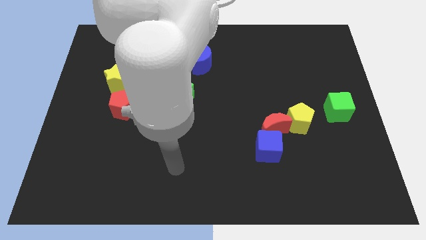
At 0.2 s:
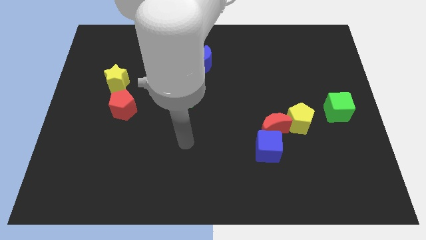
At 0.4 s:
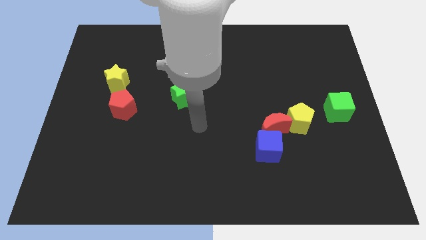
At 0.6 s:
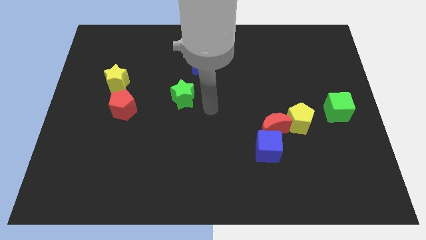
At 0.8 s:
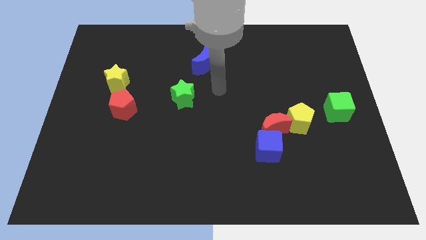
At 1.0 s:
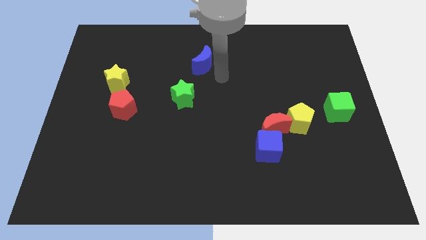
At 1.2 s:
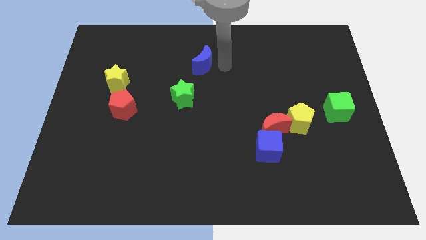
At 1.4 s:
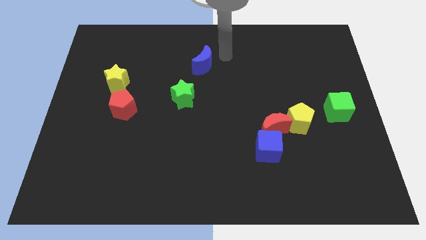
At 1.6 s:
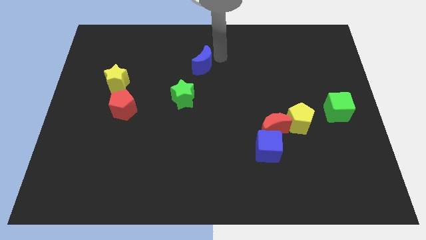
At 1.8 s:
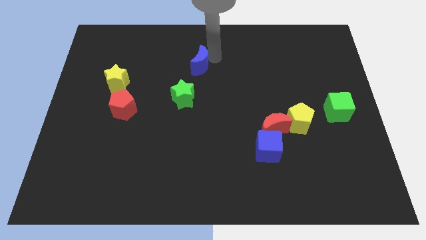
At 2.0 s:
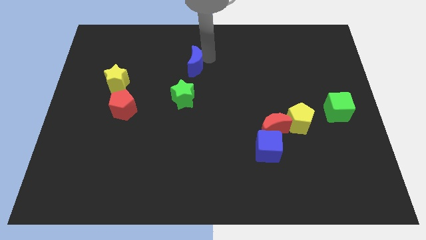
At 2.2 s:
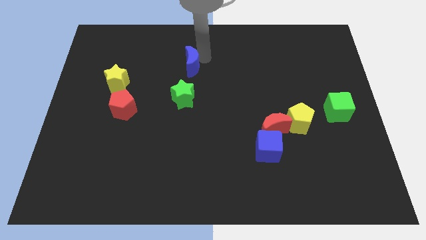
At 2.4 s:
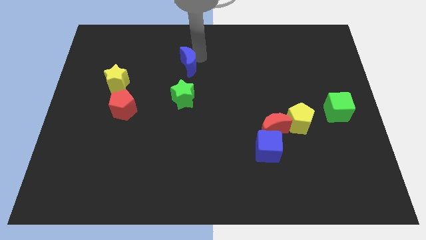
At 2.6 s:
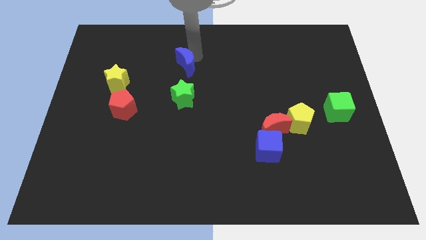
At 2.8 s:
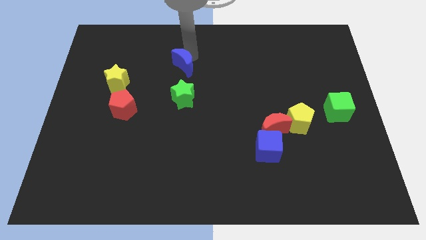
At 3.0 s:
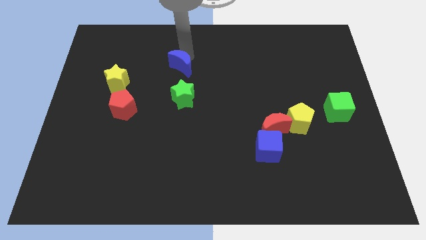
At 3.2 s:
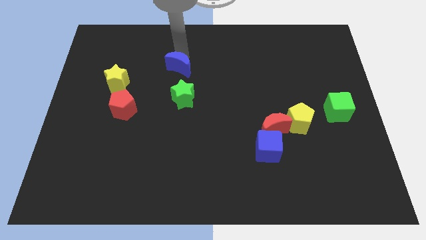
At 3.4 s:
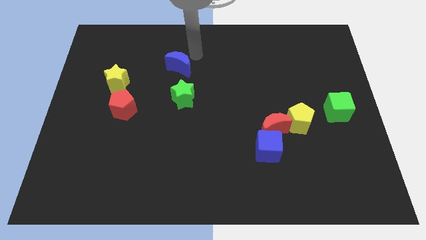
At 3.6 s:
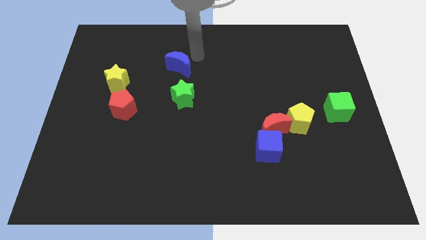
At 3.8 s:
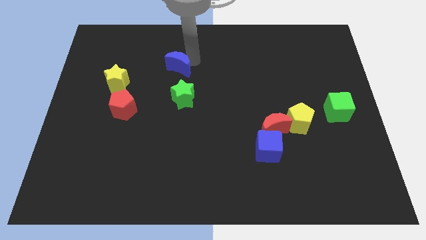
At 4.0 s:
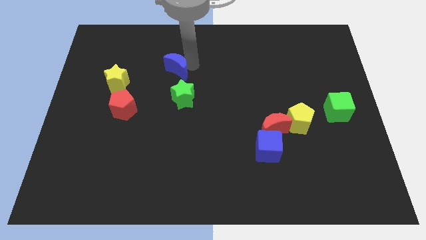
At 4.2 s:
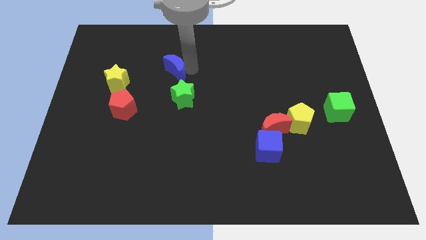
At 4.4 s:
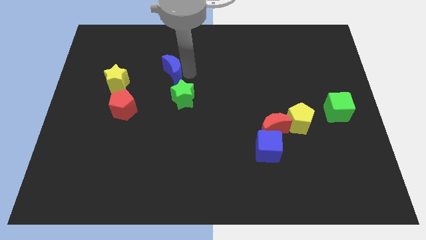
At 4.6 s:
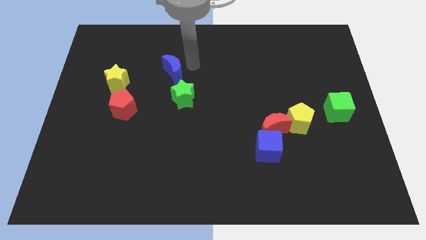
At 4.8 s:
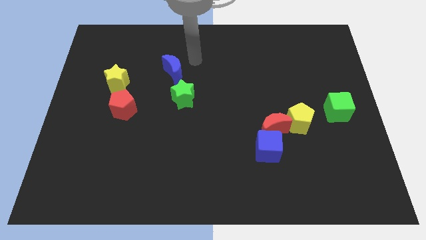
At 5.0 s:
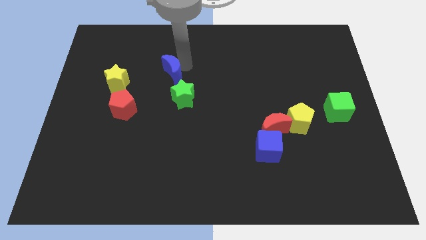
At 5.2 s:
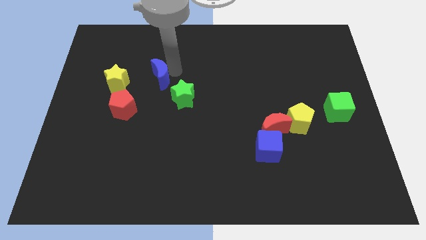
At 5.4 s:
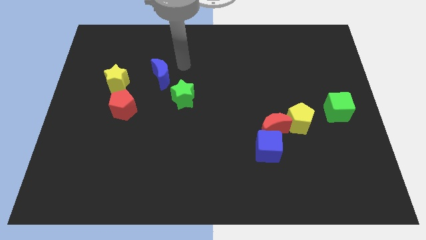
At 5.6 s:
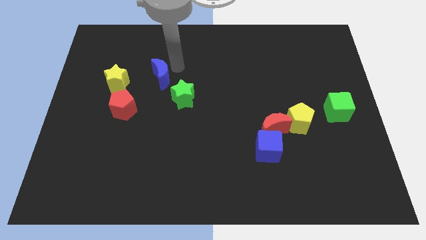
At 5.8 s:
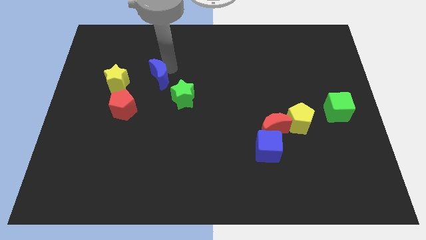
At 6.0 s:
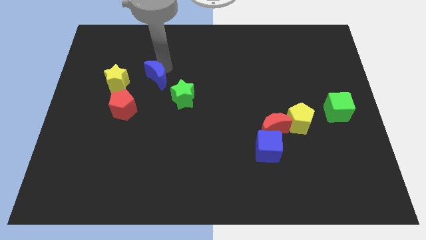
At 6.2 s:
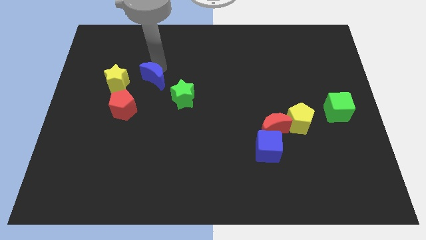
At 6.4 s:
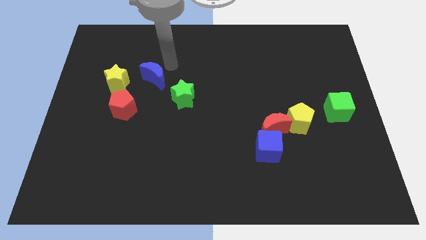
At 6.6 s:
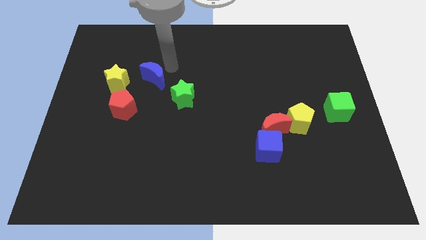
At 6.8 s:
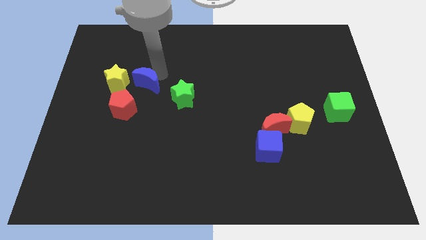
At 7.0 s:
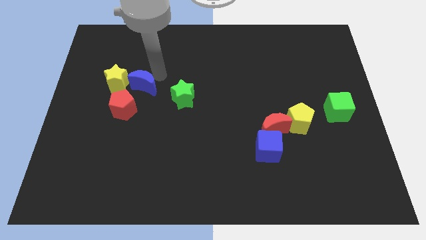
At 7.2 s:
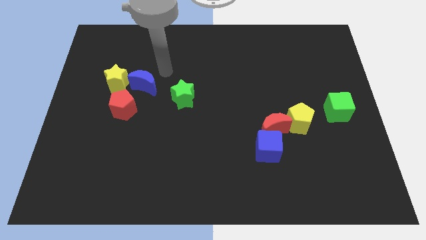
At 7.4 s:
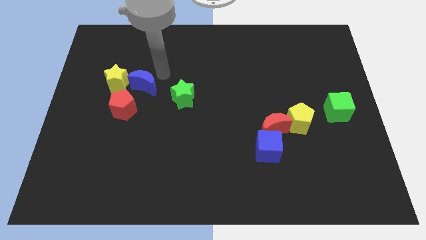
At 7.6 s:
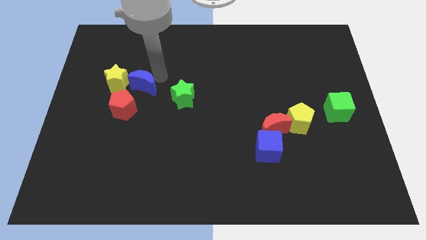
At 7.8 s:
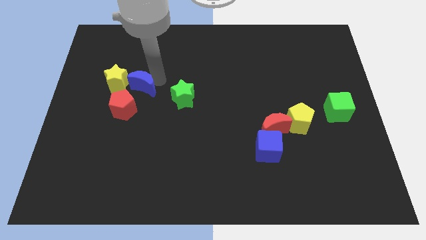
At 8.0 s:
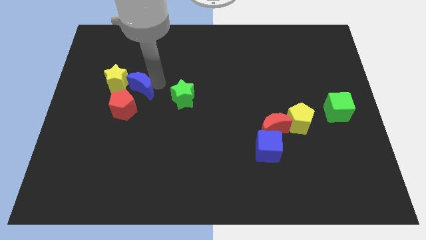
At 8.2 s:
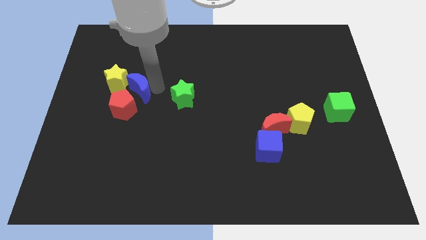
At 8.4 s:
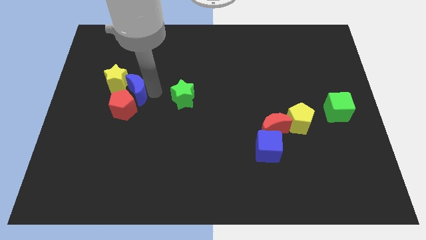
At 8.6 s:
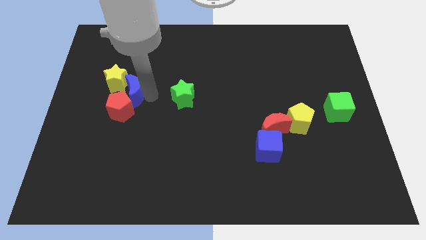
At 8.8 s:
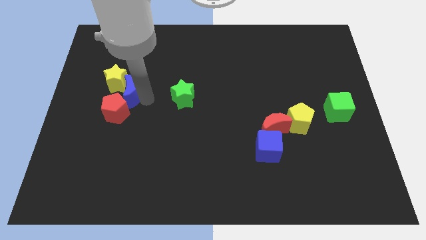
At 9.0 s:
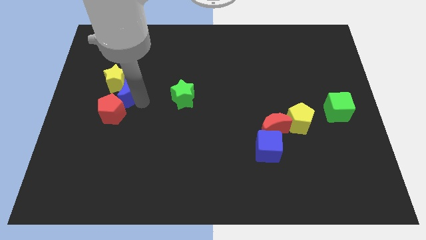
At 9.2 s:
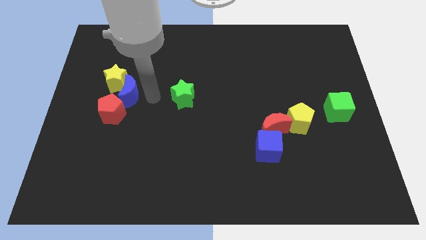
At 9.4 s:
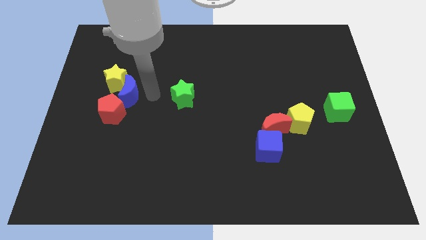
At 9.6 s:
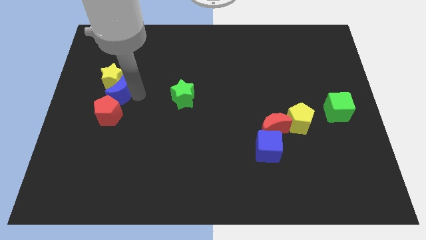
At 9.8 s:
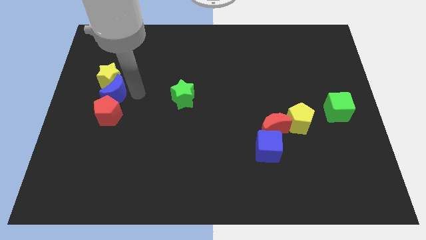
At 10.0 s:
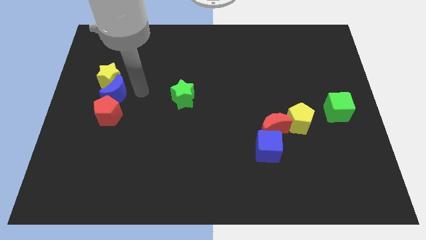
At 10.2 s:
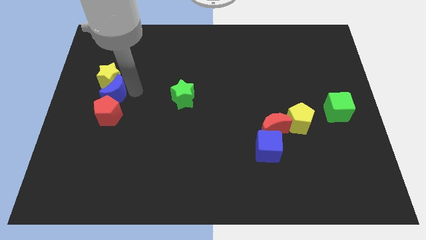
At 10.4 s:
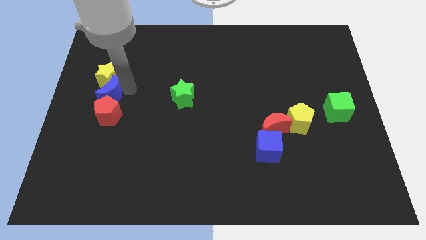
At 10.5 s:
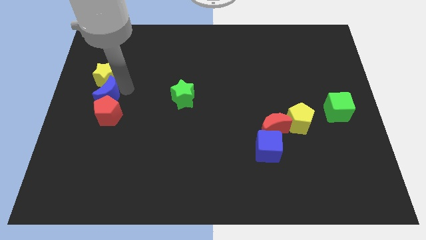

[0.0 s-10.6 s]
push the blue moon to the left side of the board

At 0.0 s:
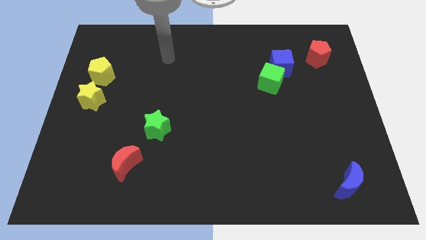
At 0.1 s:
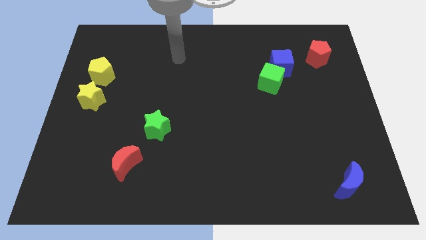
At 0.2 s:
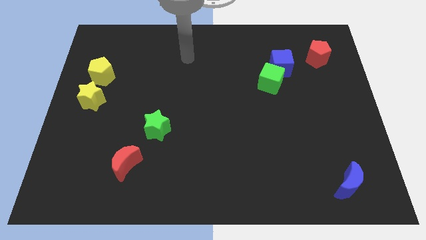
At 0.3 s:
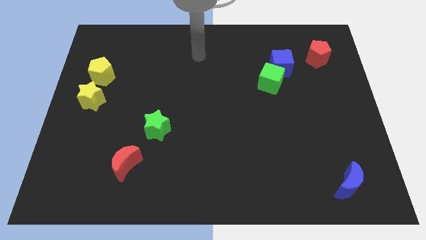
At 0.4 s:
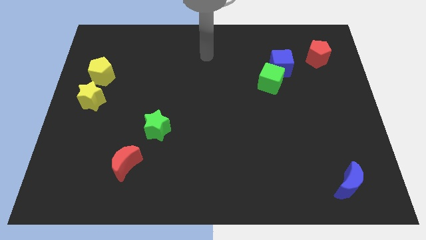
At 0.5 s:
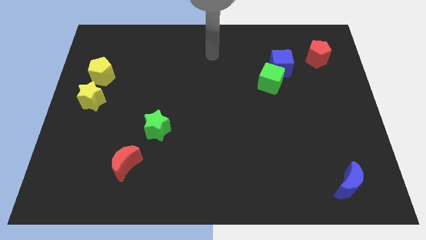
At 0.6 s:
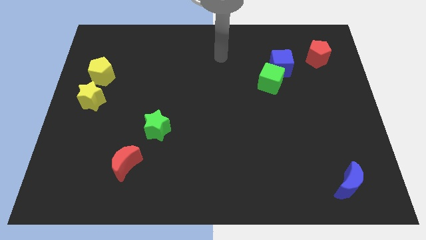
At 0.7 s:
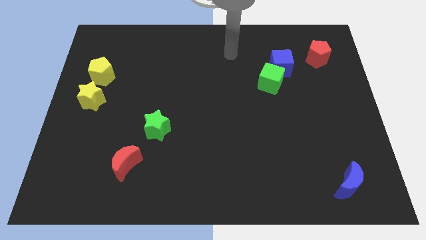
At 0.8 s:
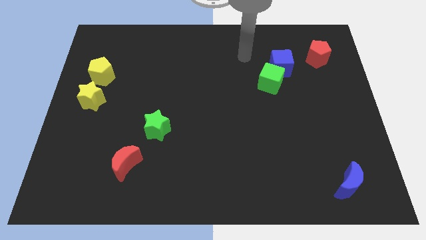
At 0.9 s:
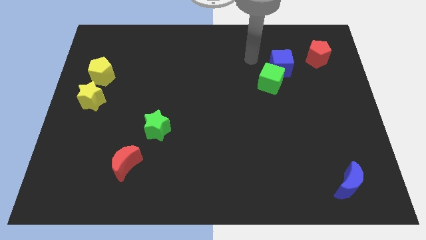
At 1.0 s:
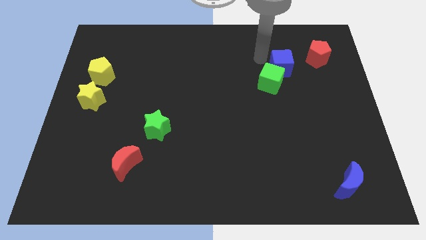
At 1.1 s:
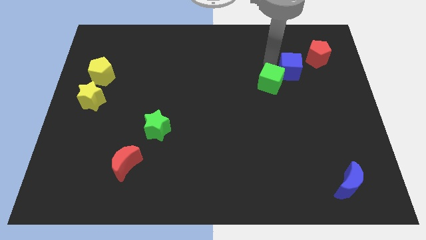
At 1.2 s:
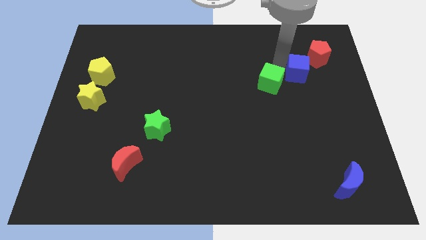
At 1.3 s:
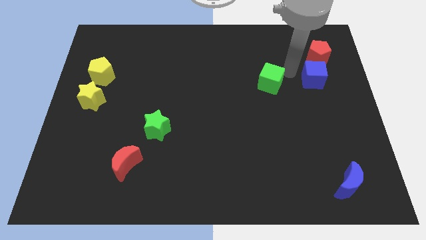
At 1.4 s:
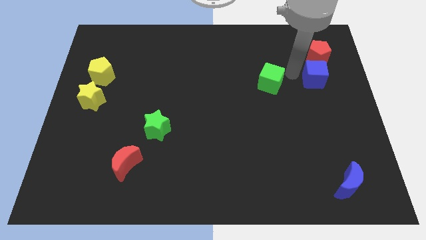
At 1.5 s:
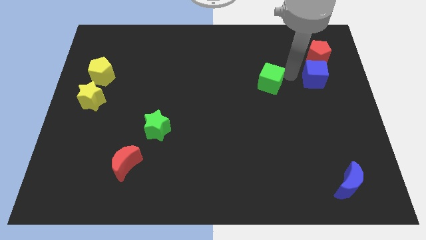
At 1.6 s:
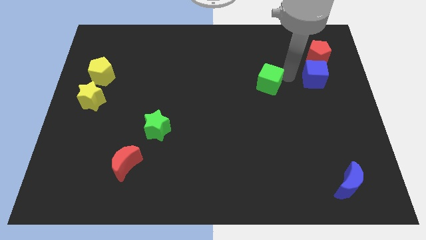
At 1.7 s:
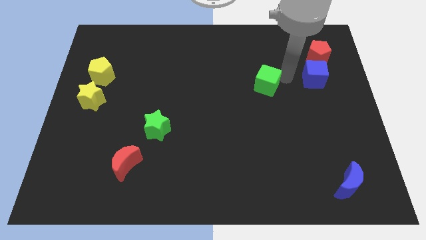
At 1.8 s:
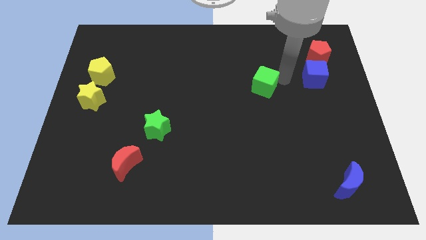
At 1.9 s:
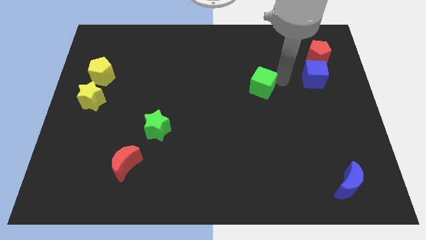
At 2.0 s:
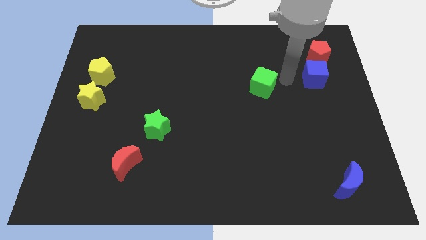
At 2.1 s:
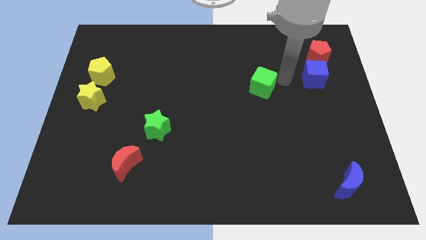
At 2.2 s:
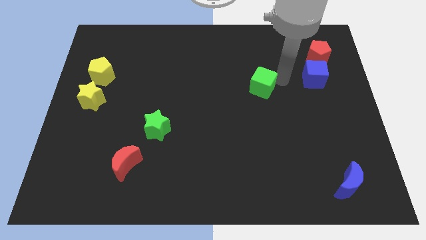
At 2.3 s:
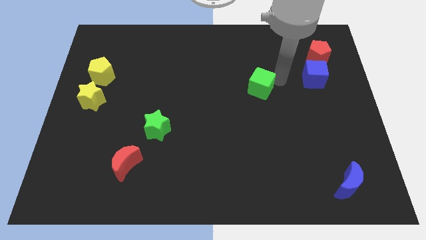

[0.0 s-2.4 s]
put the green cube to the middle
